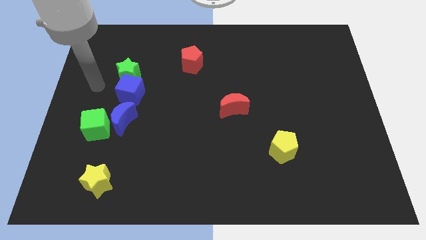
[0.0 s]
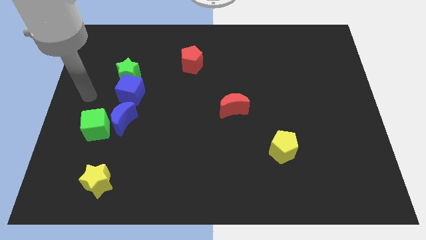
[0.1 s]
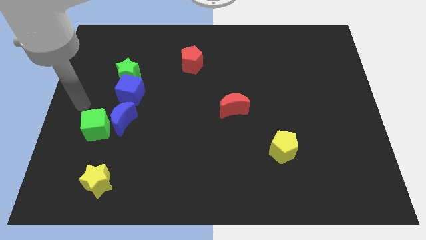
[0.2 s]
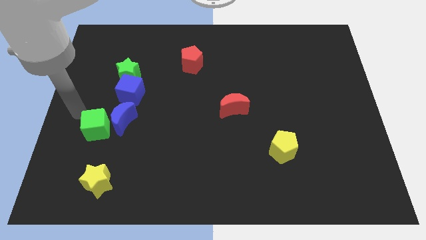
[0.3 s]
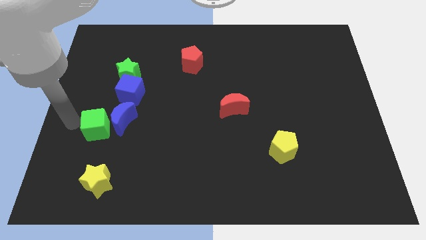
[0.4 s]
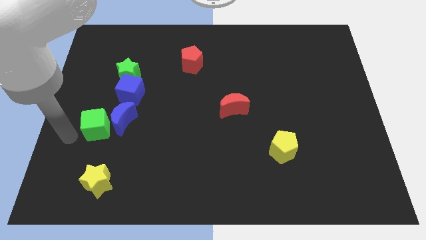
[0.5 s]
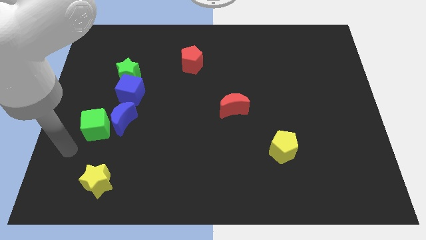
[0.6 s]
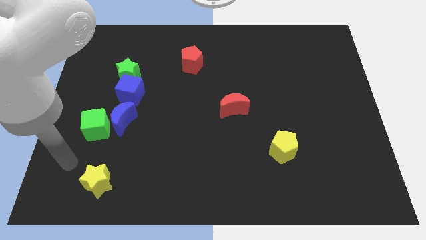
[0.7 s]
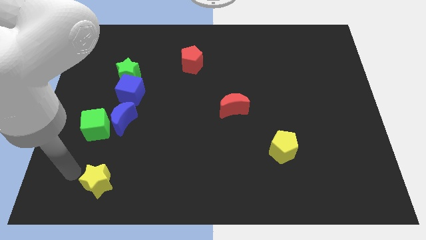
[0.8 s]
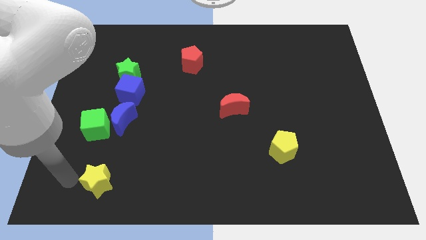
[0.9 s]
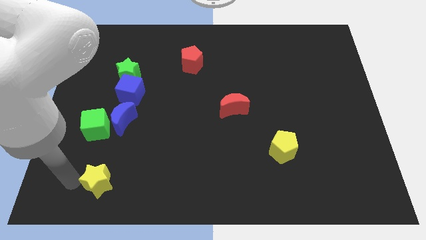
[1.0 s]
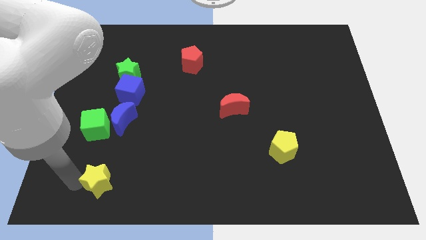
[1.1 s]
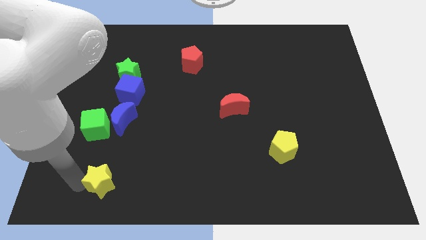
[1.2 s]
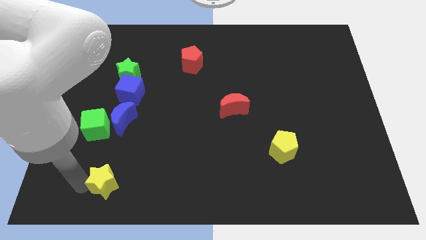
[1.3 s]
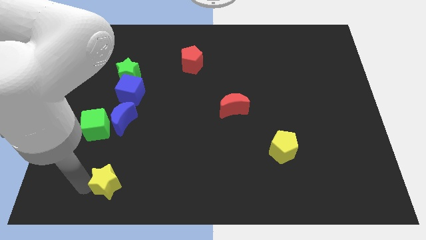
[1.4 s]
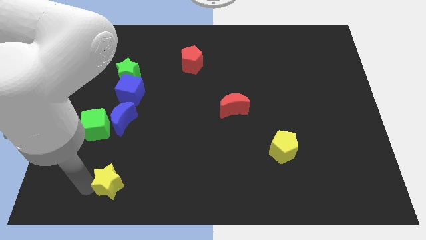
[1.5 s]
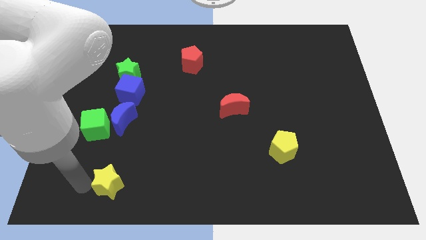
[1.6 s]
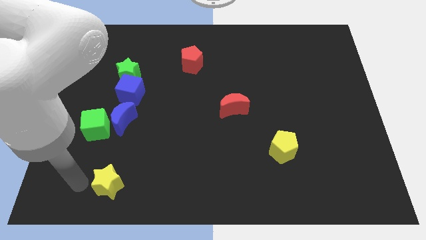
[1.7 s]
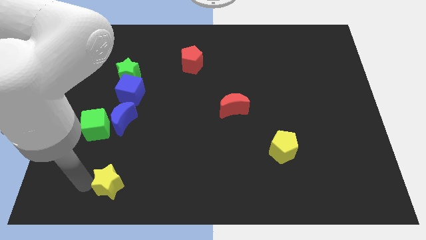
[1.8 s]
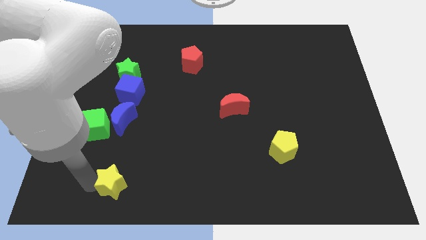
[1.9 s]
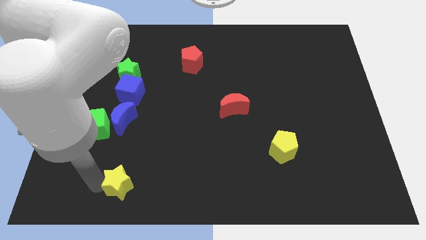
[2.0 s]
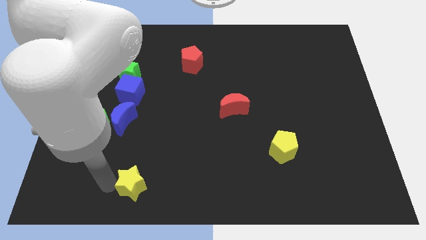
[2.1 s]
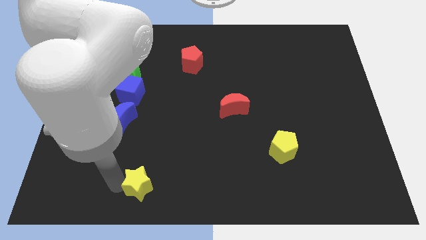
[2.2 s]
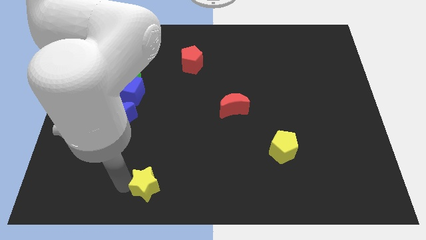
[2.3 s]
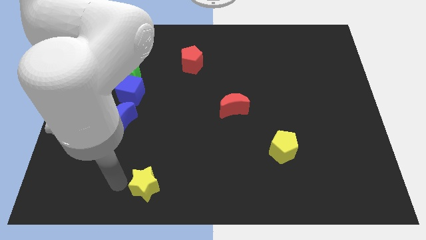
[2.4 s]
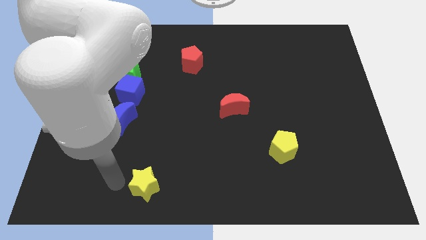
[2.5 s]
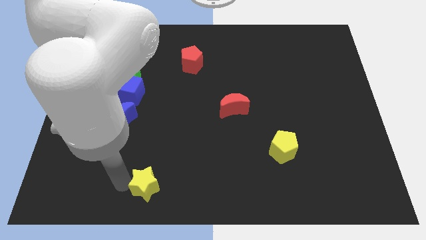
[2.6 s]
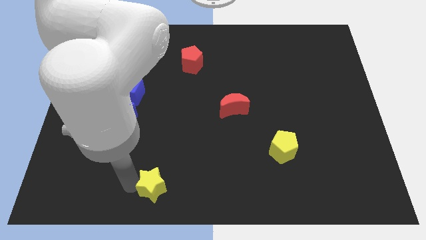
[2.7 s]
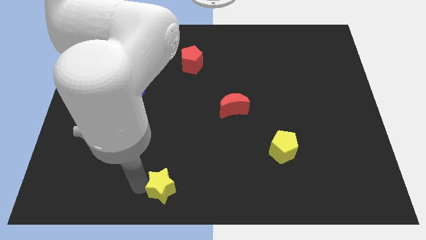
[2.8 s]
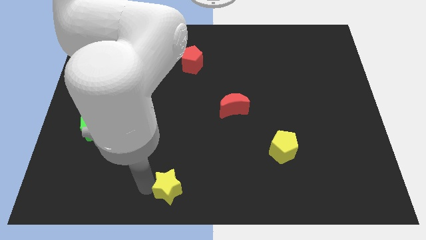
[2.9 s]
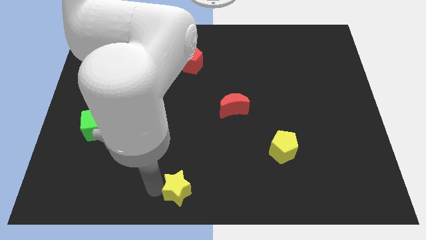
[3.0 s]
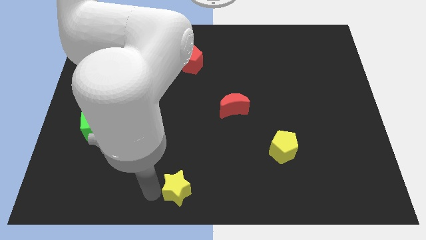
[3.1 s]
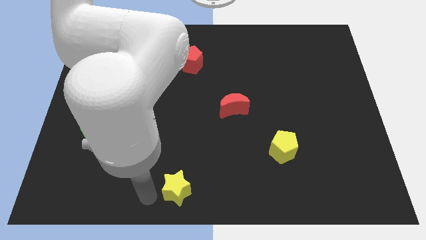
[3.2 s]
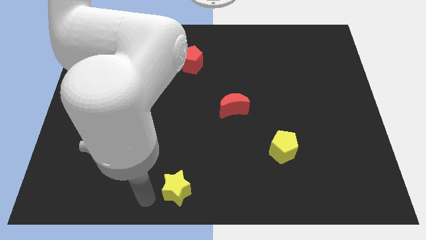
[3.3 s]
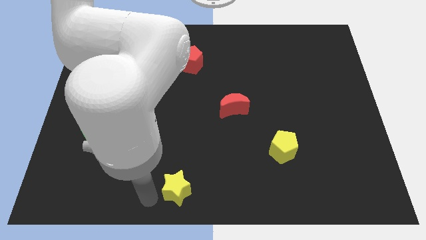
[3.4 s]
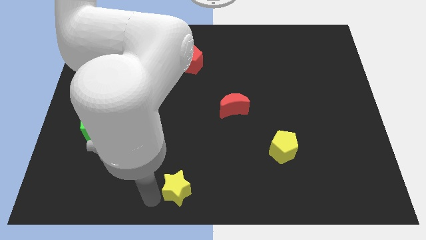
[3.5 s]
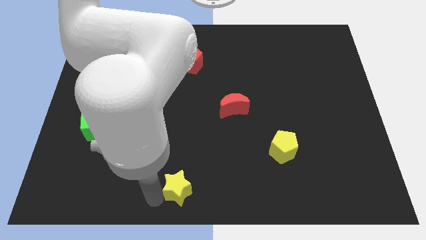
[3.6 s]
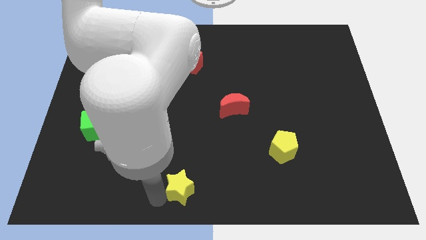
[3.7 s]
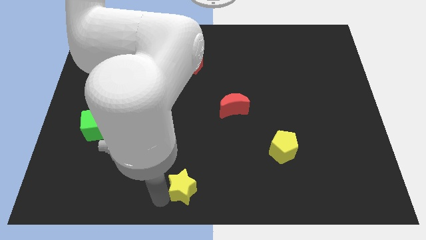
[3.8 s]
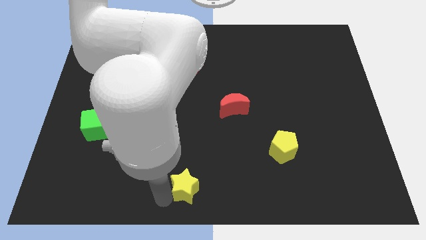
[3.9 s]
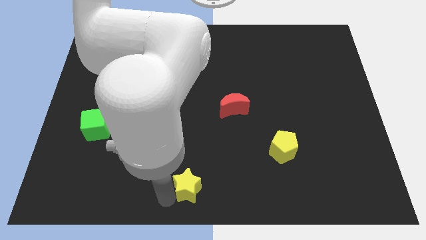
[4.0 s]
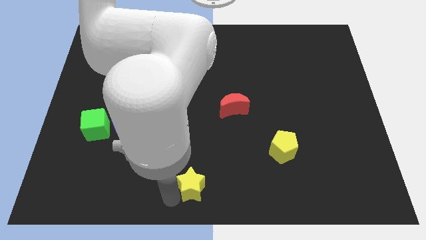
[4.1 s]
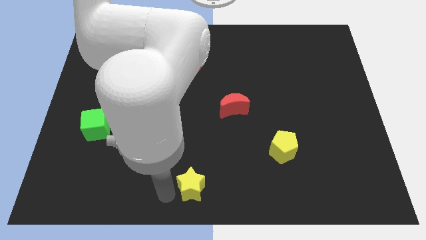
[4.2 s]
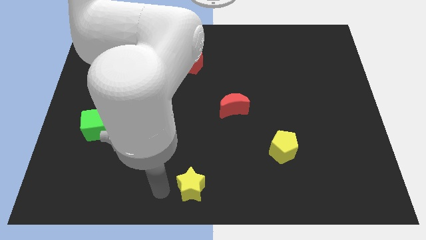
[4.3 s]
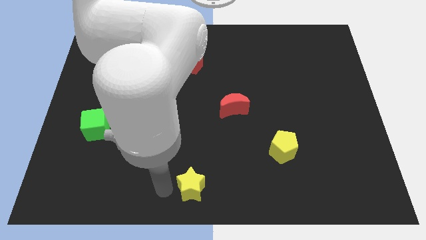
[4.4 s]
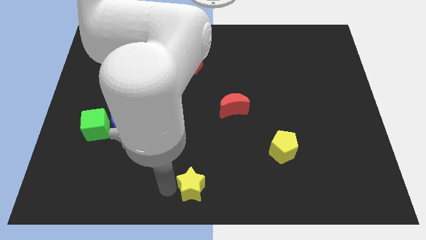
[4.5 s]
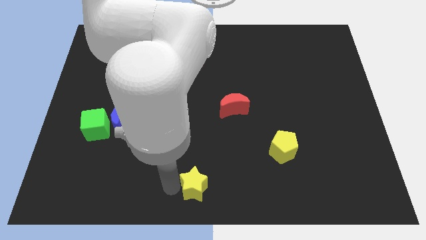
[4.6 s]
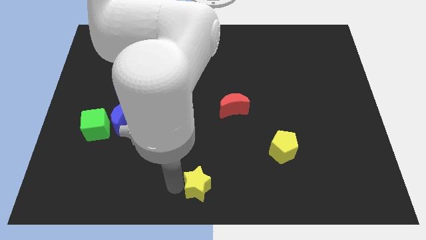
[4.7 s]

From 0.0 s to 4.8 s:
move the yellow star to the right

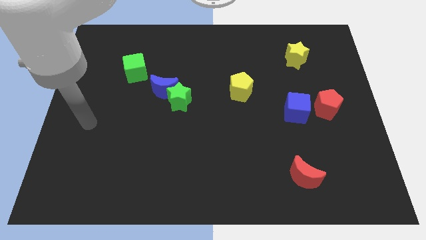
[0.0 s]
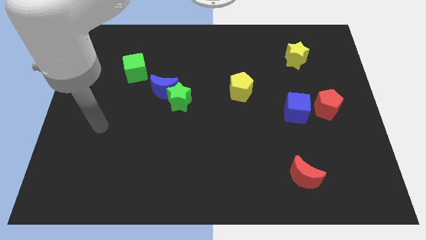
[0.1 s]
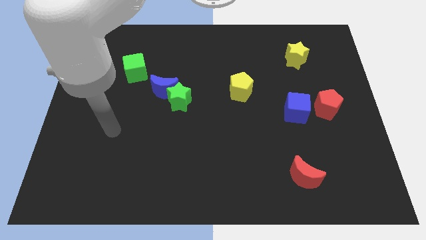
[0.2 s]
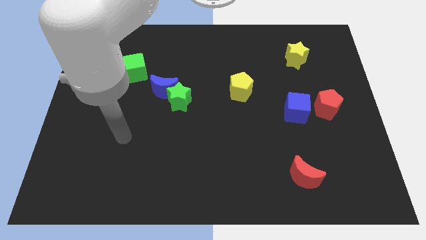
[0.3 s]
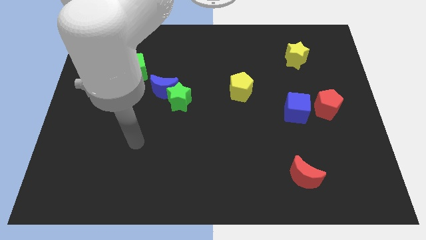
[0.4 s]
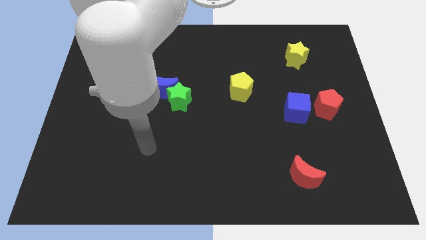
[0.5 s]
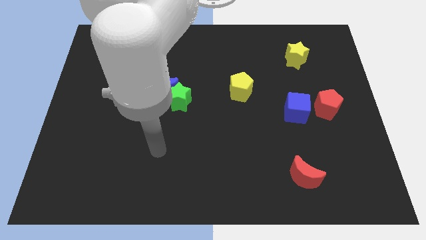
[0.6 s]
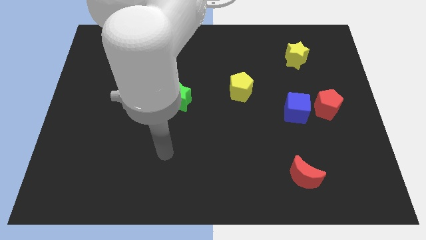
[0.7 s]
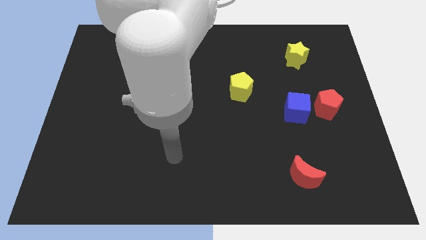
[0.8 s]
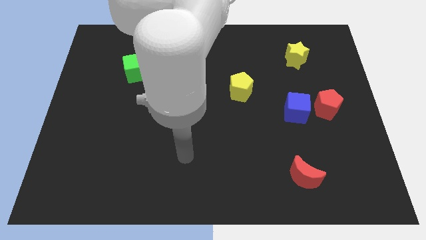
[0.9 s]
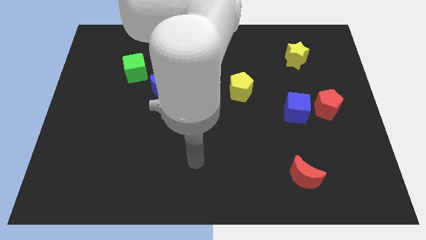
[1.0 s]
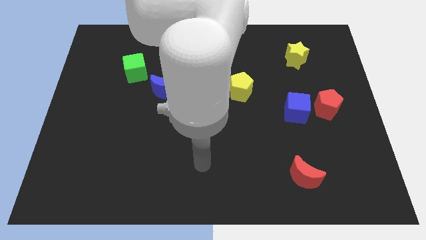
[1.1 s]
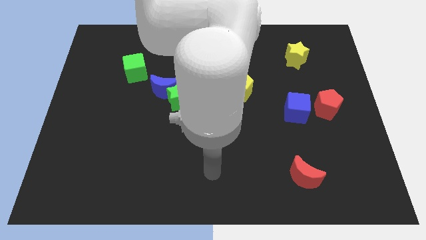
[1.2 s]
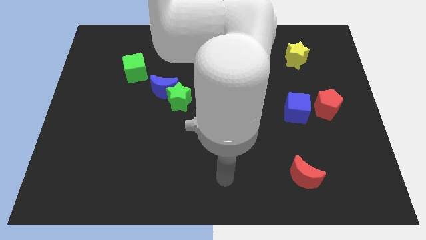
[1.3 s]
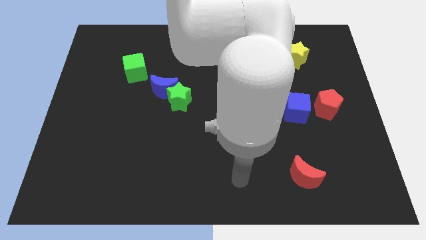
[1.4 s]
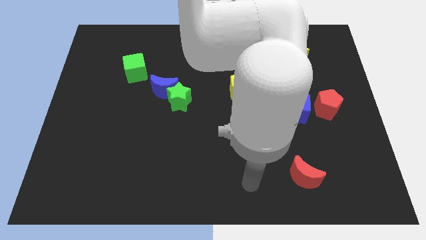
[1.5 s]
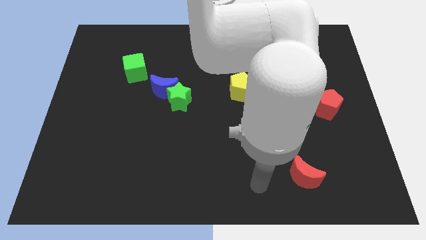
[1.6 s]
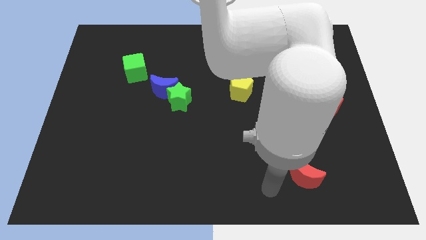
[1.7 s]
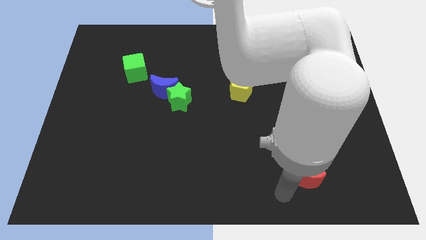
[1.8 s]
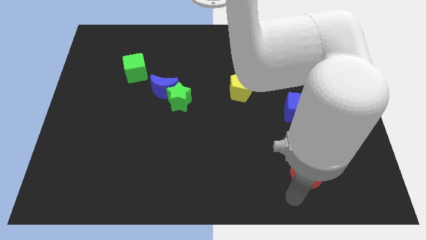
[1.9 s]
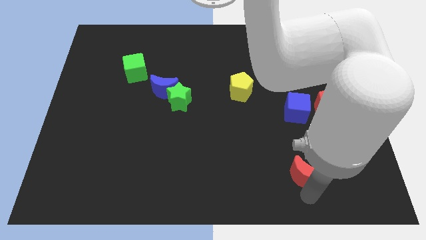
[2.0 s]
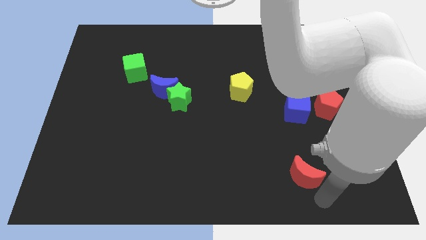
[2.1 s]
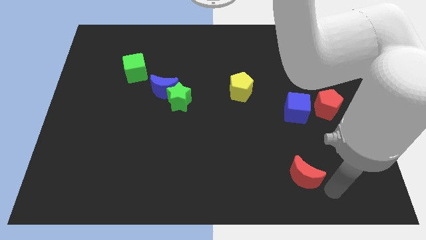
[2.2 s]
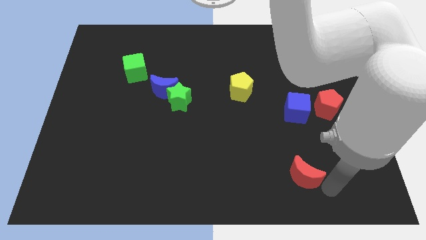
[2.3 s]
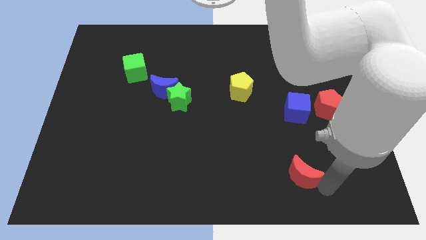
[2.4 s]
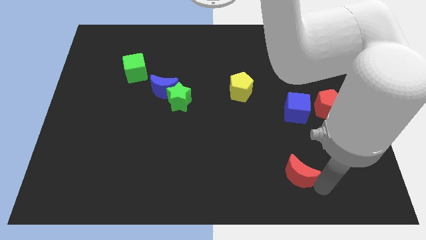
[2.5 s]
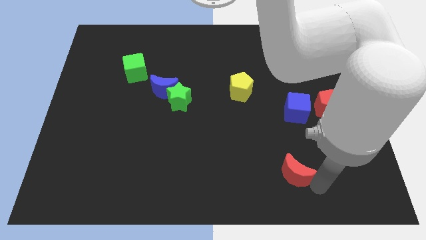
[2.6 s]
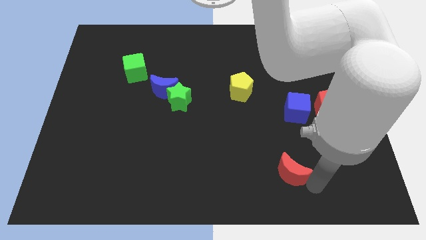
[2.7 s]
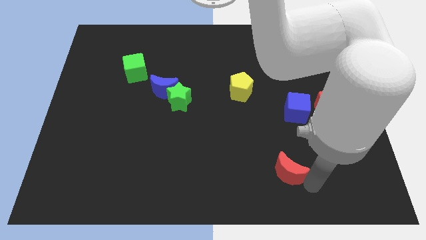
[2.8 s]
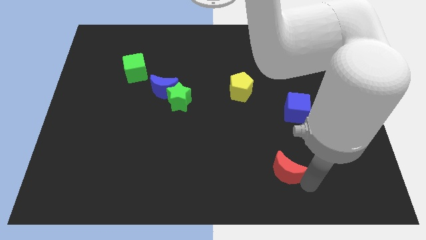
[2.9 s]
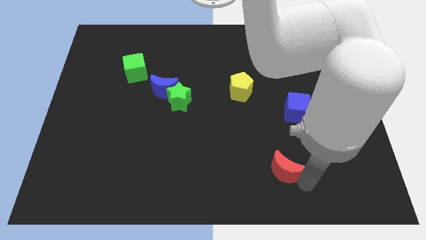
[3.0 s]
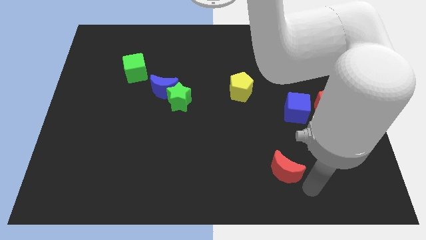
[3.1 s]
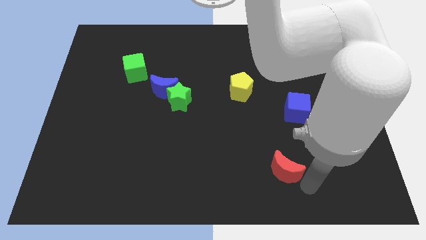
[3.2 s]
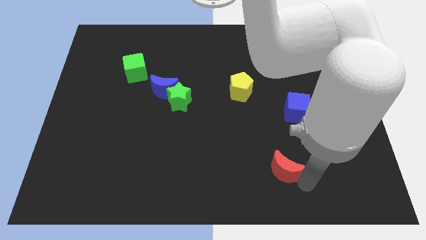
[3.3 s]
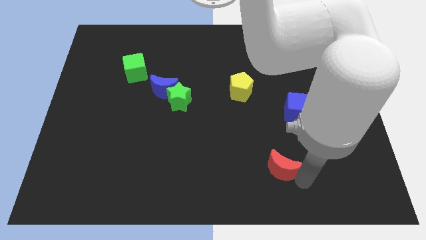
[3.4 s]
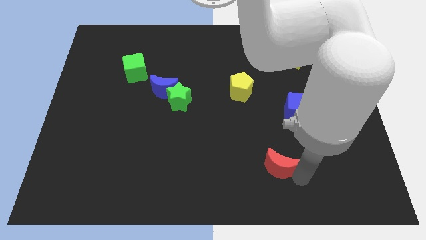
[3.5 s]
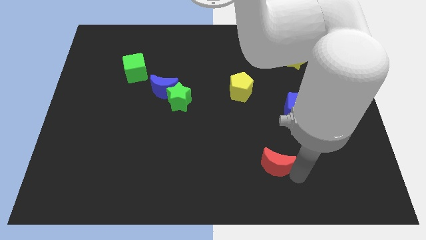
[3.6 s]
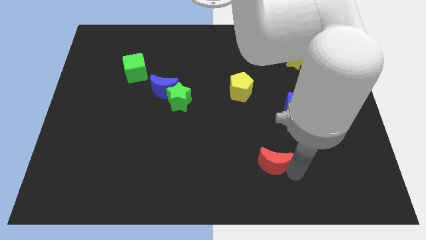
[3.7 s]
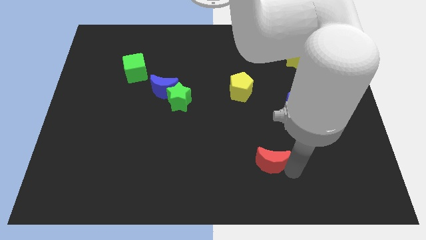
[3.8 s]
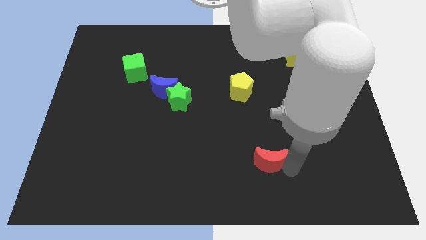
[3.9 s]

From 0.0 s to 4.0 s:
move the red moon up and then left a little
